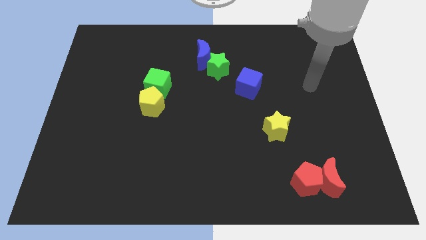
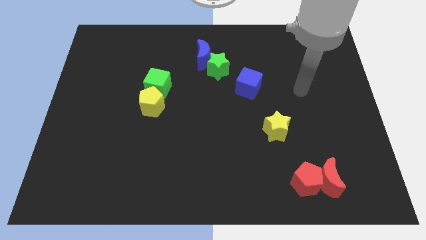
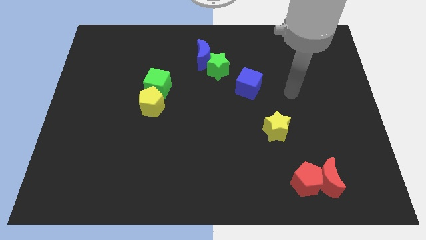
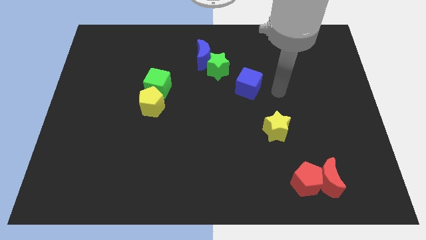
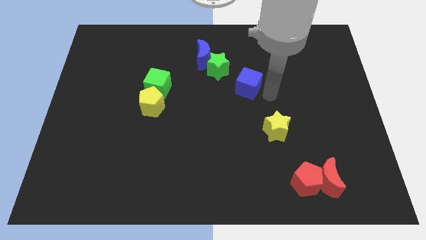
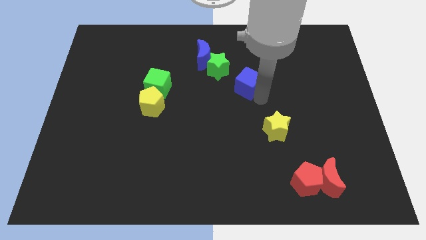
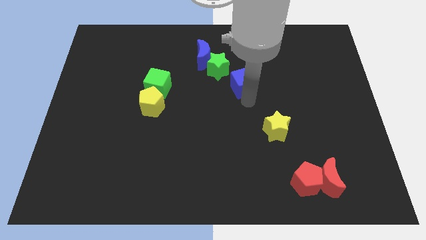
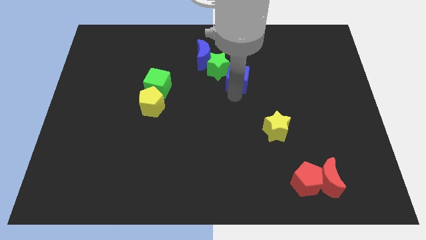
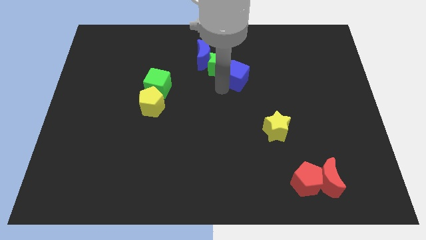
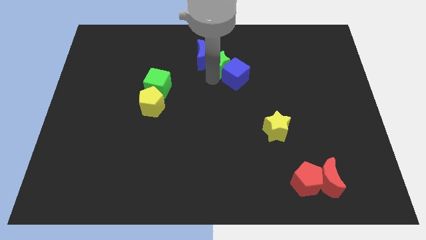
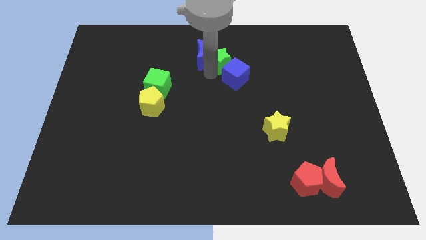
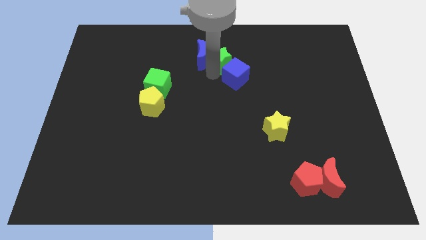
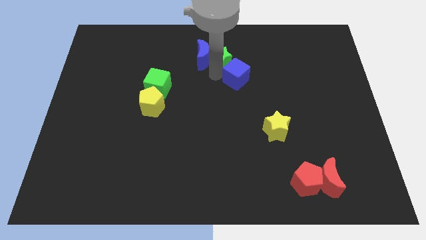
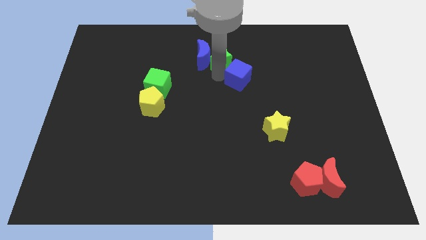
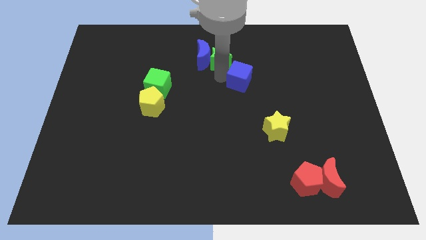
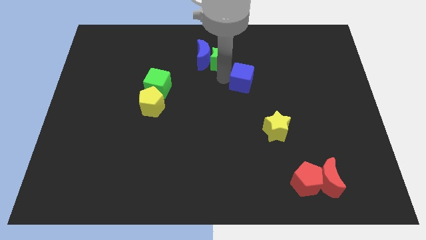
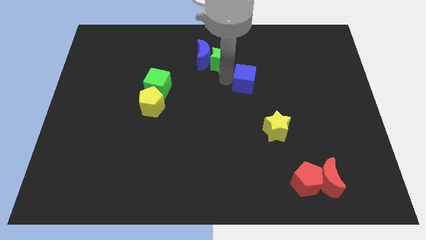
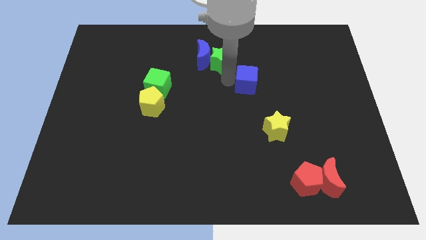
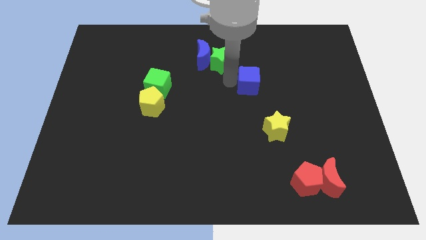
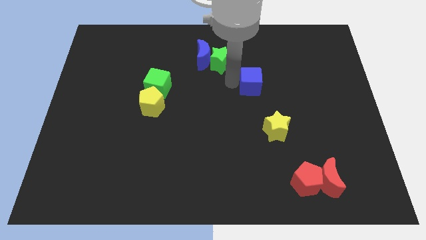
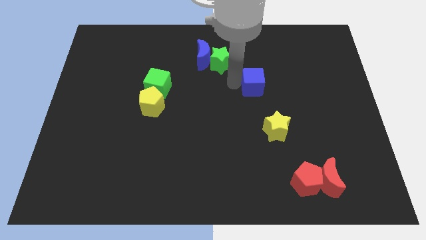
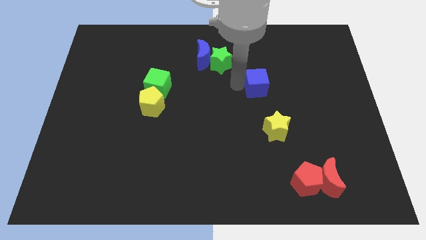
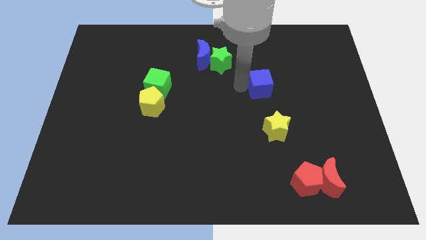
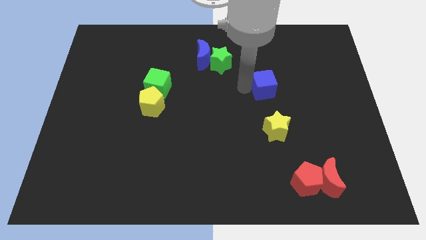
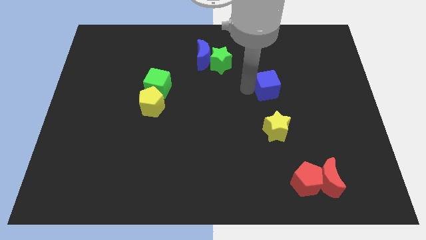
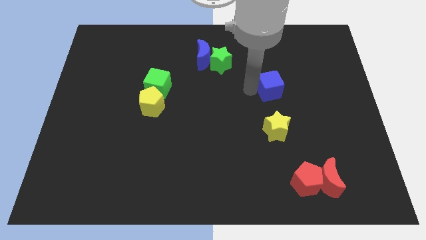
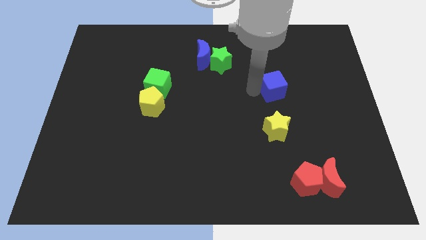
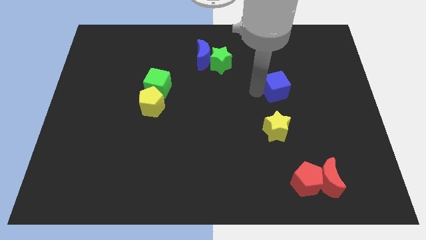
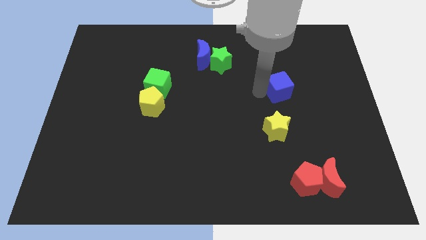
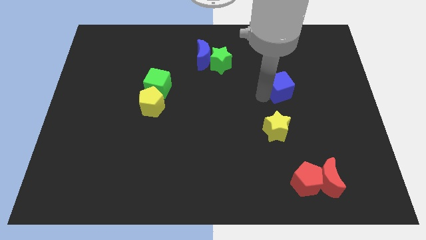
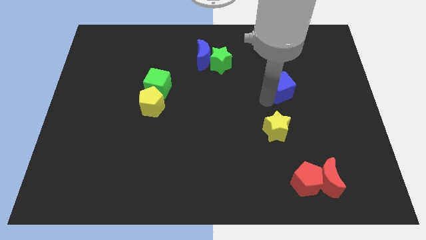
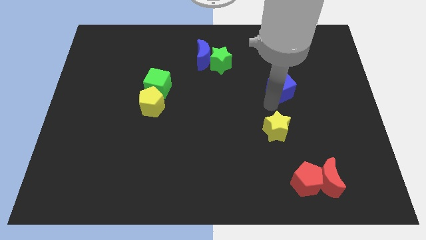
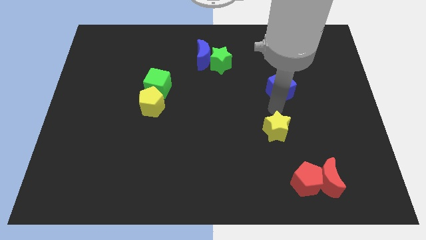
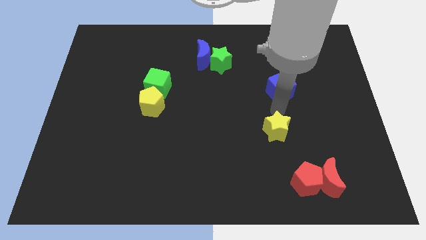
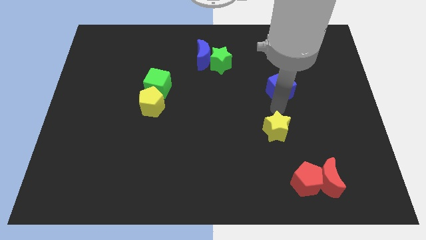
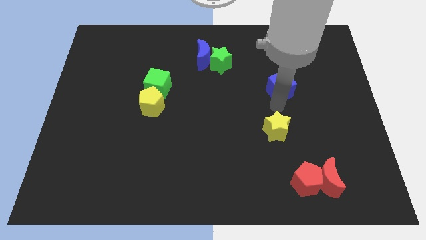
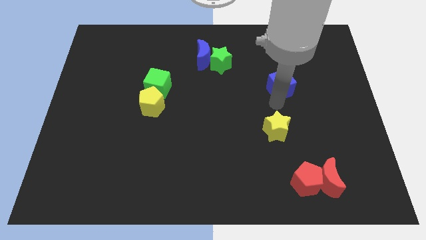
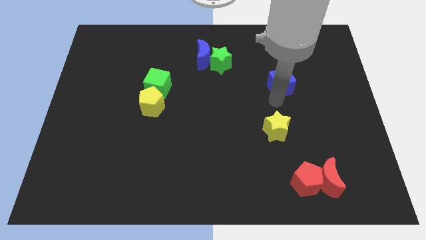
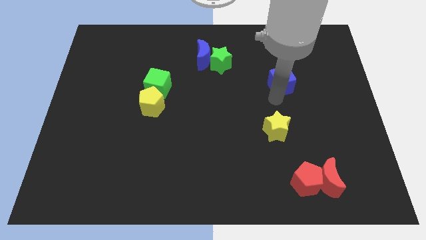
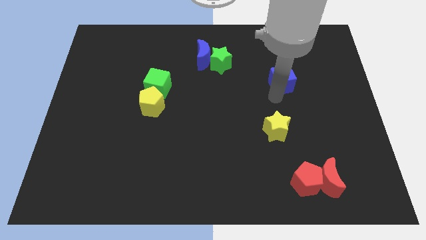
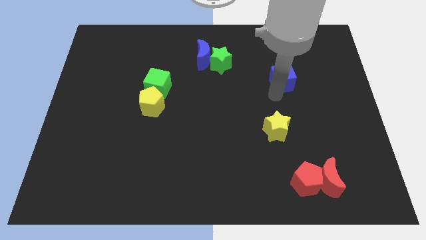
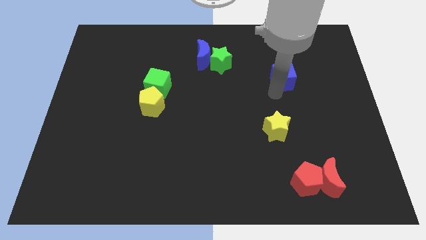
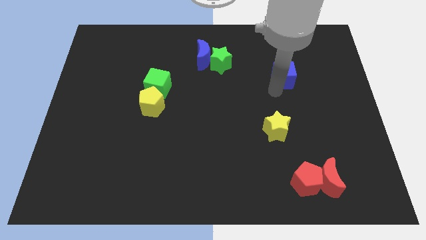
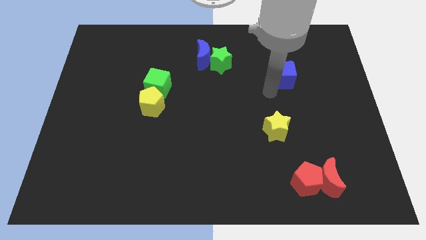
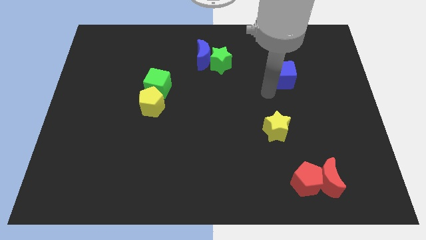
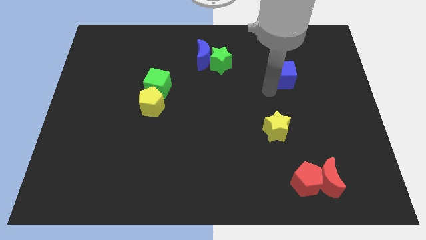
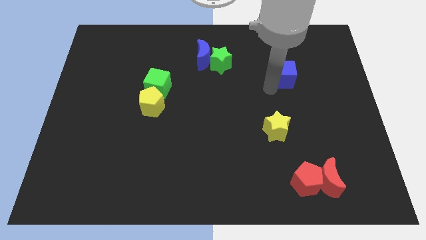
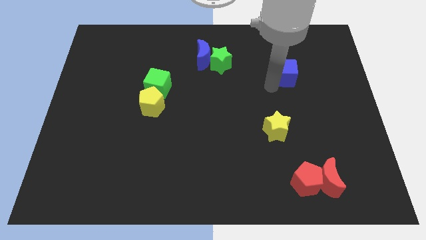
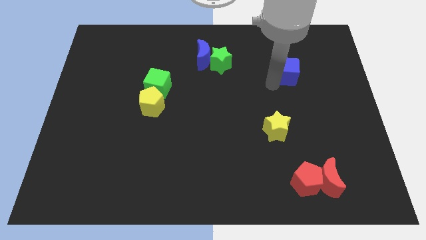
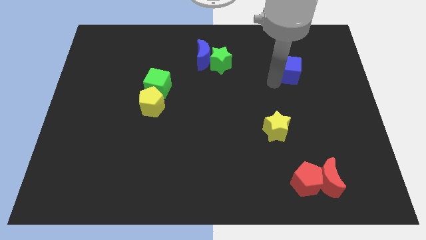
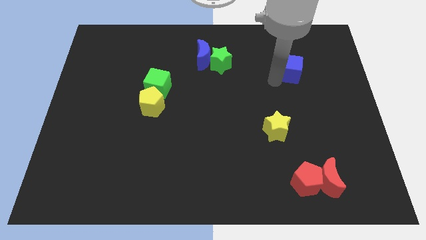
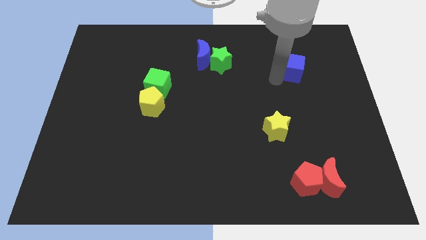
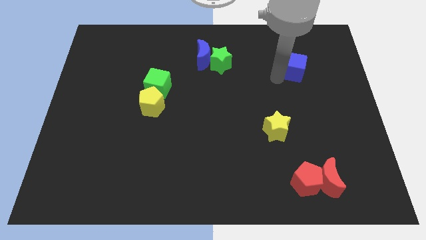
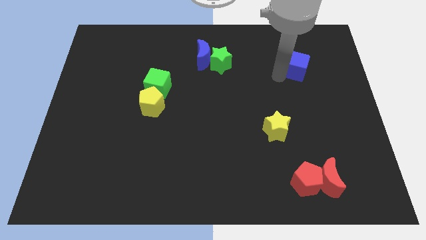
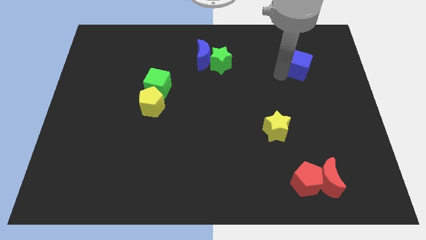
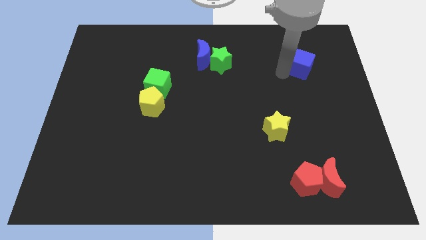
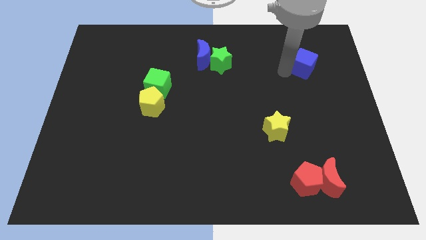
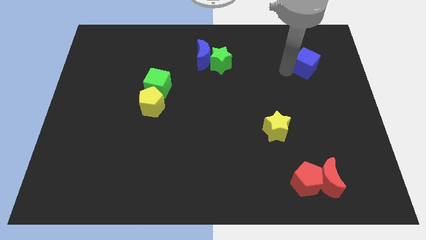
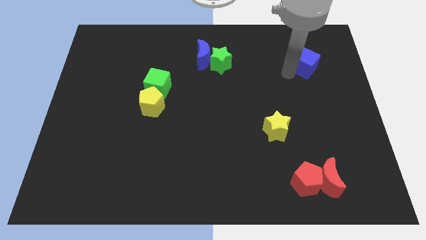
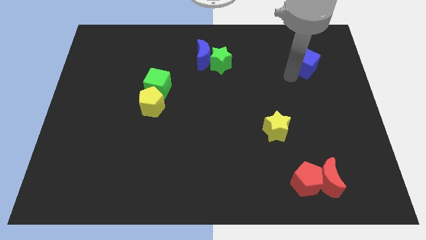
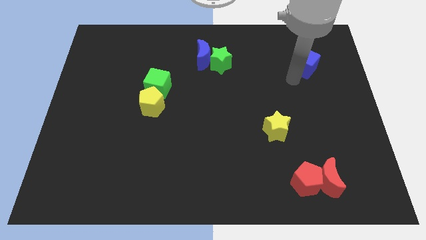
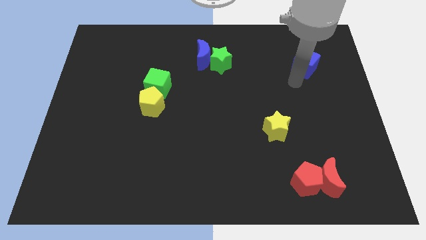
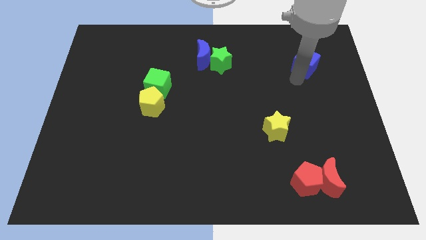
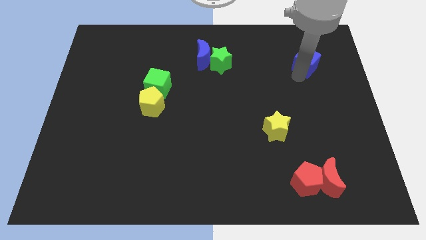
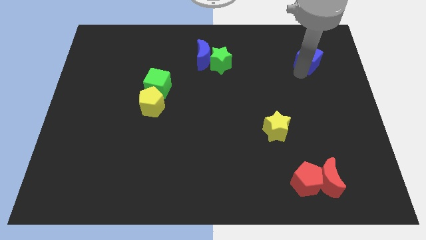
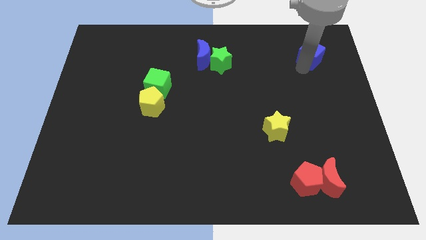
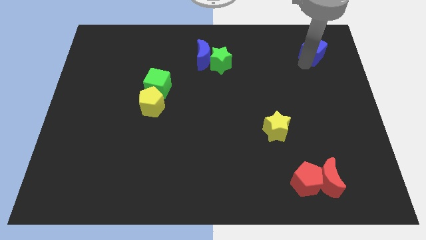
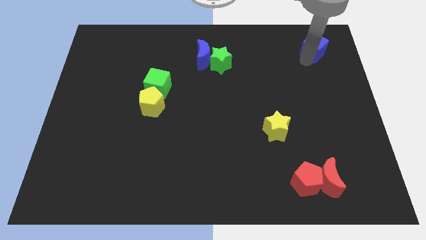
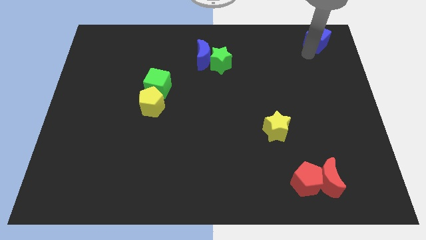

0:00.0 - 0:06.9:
push the blue cube to the top right

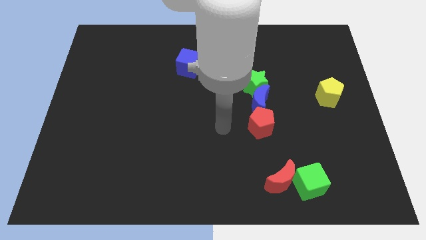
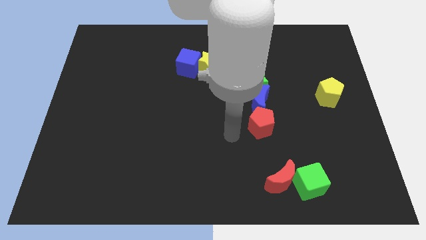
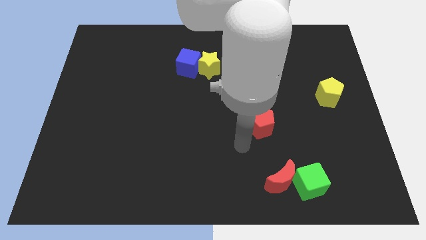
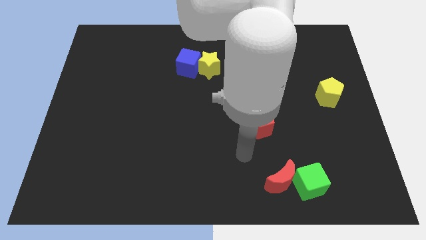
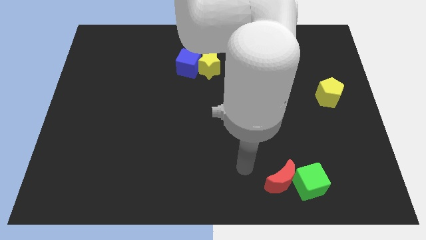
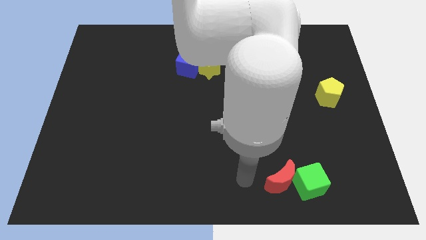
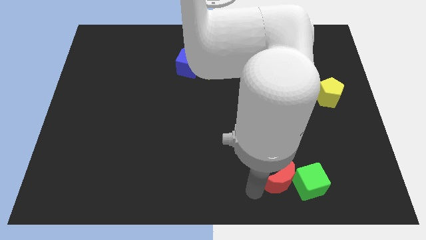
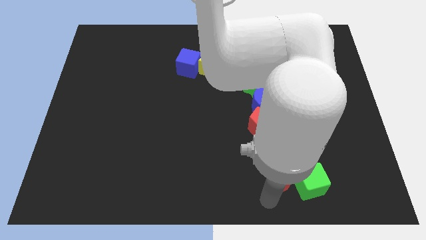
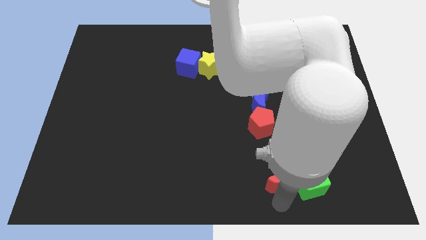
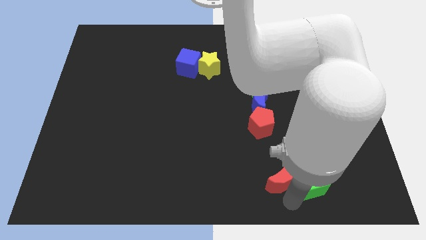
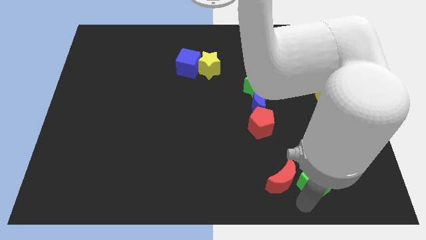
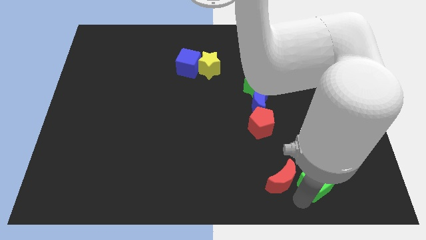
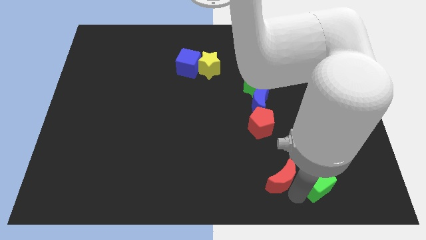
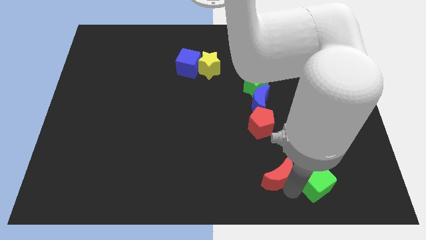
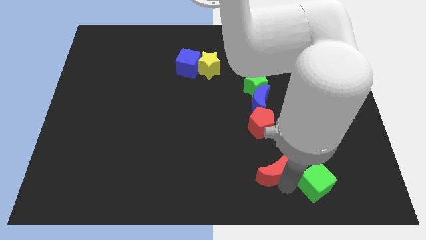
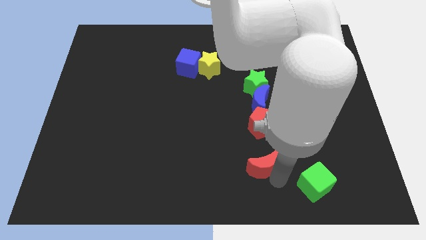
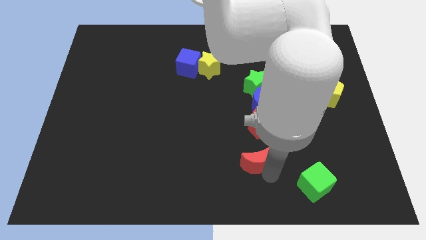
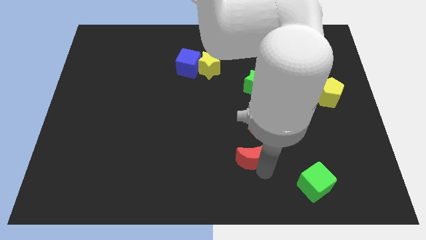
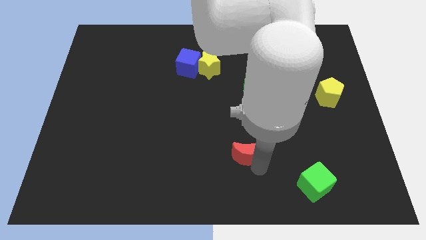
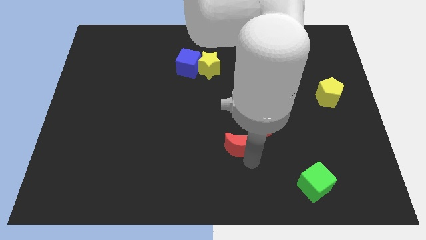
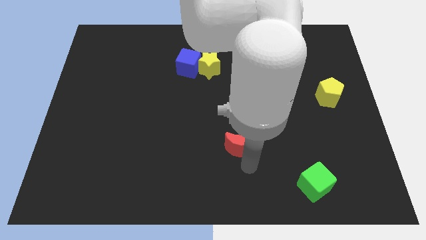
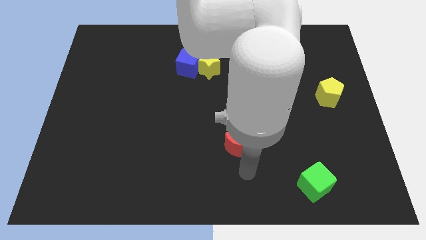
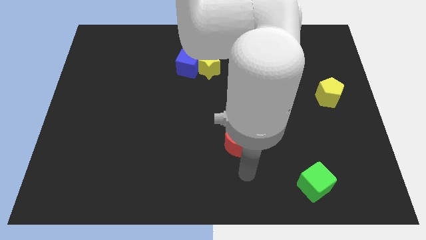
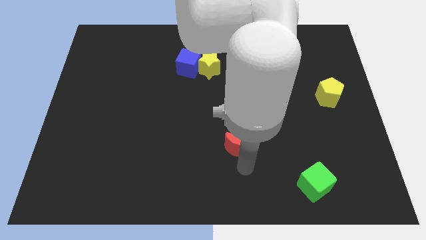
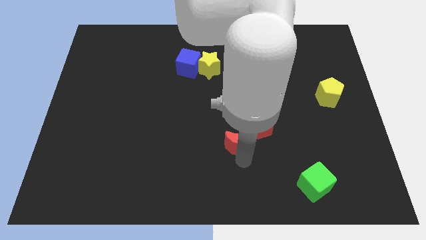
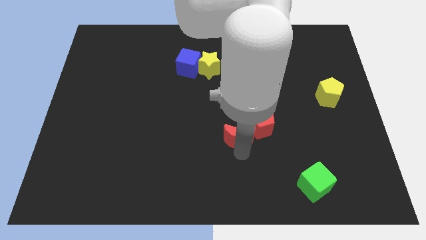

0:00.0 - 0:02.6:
push the red moon to the center
